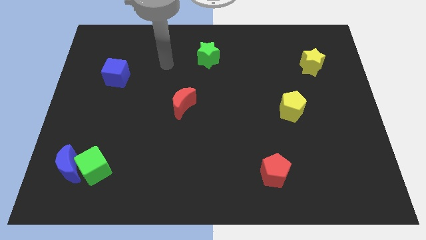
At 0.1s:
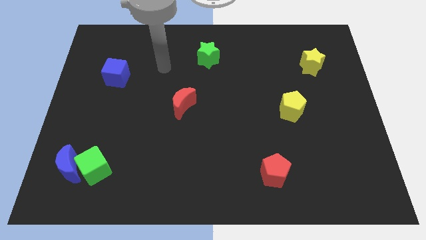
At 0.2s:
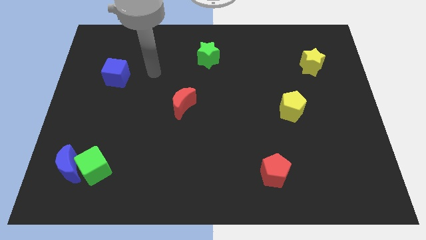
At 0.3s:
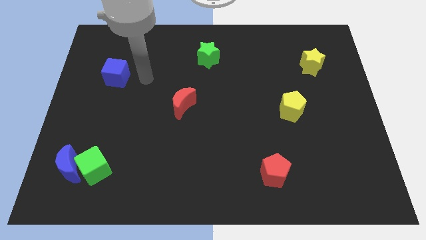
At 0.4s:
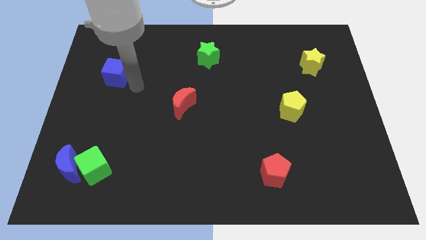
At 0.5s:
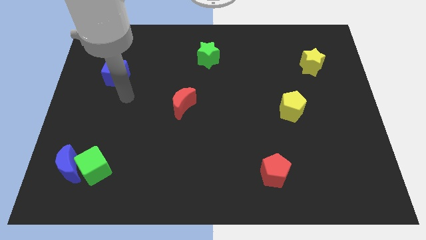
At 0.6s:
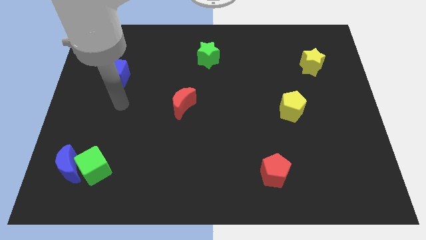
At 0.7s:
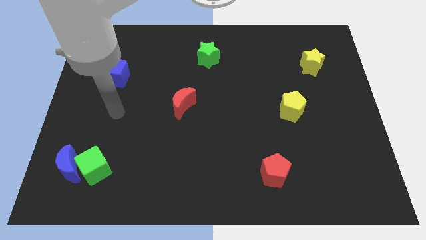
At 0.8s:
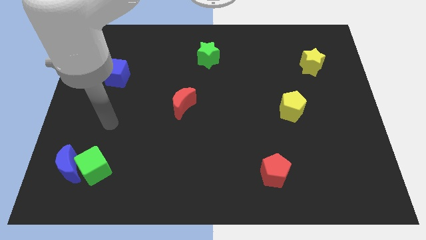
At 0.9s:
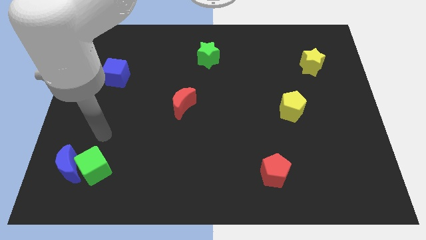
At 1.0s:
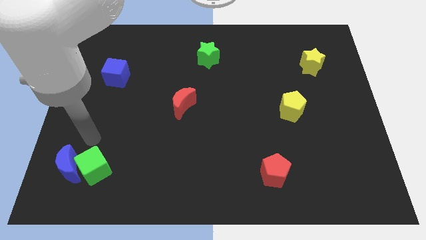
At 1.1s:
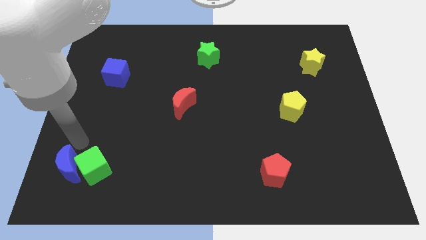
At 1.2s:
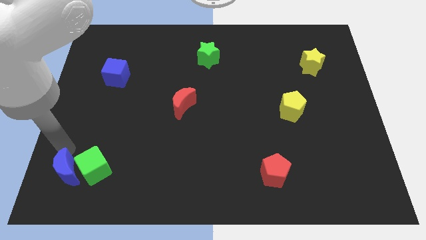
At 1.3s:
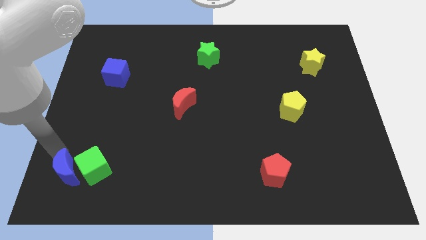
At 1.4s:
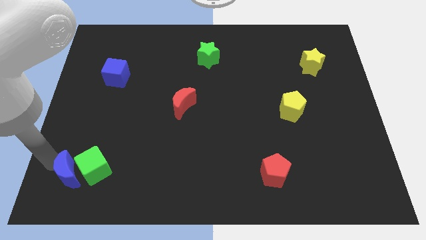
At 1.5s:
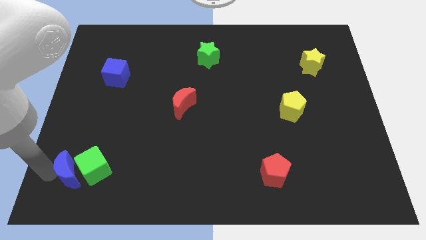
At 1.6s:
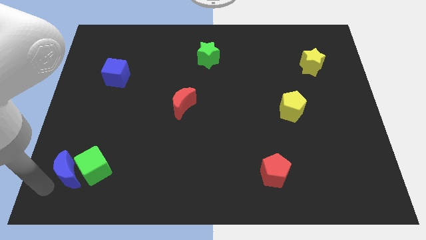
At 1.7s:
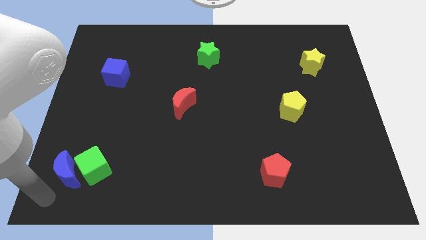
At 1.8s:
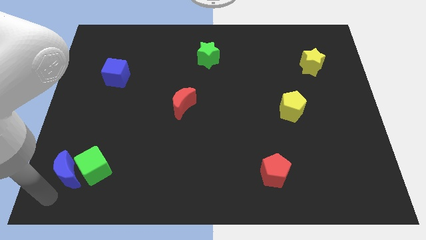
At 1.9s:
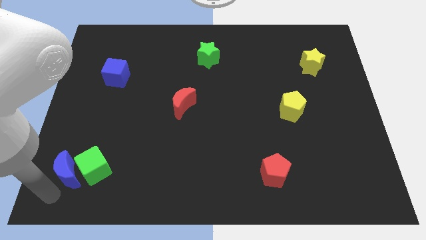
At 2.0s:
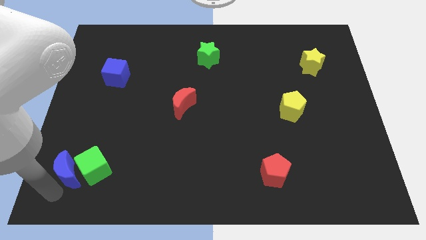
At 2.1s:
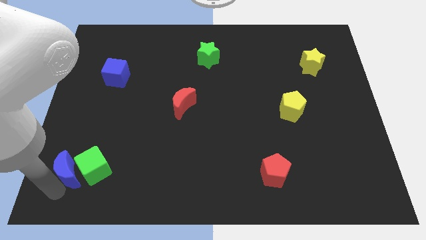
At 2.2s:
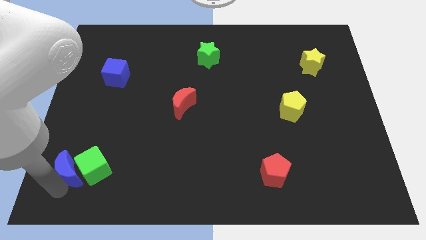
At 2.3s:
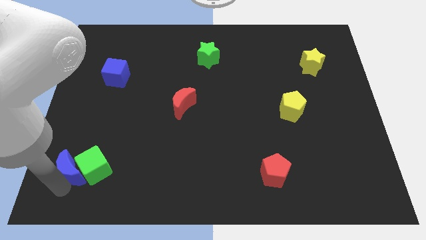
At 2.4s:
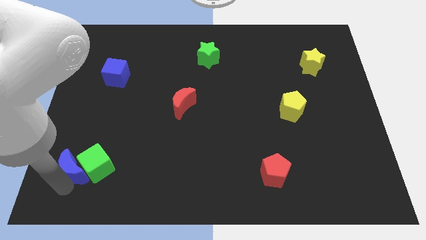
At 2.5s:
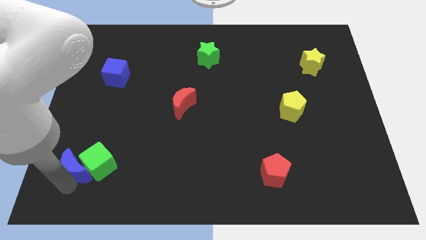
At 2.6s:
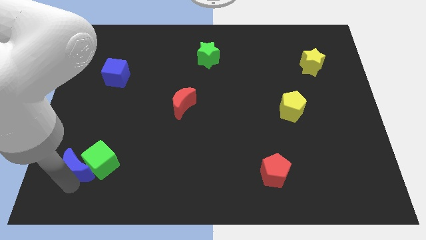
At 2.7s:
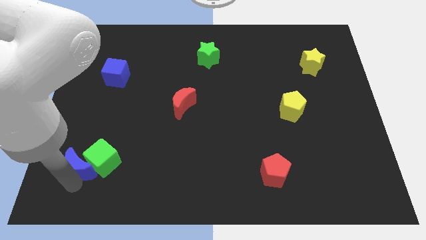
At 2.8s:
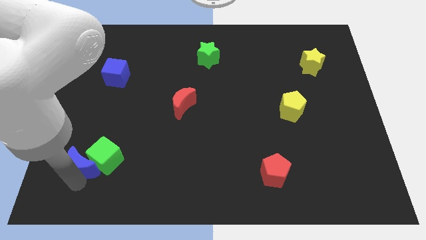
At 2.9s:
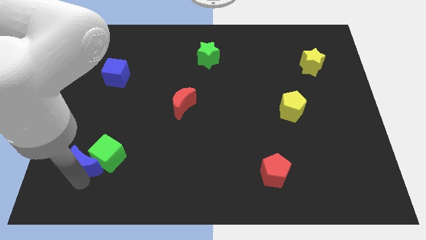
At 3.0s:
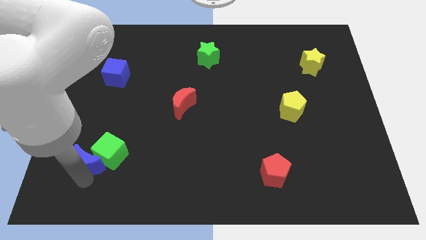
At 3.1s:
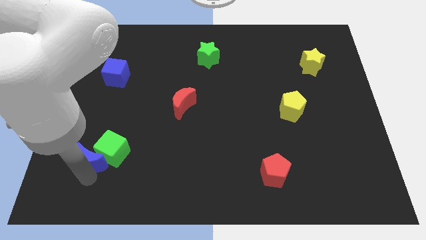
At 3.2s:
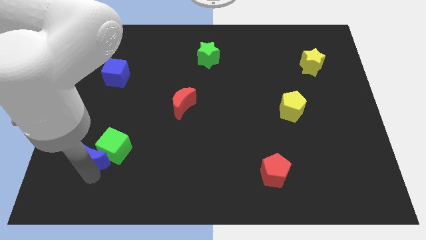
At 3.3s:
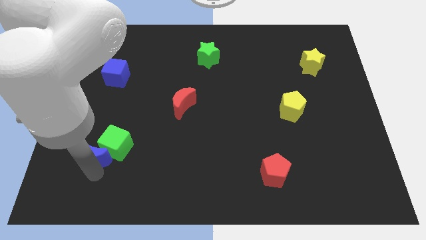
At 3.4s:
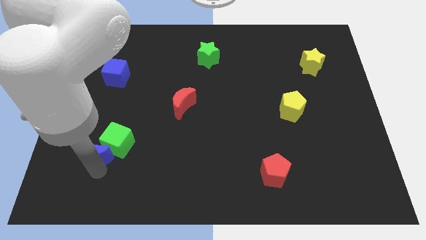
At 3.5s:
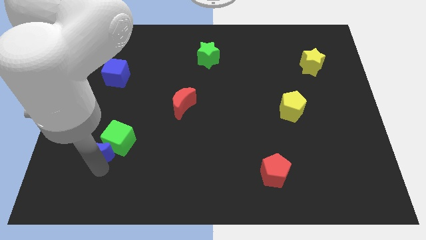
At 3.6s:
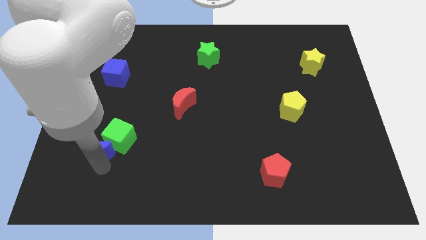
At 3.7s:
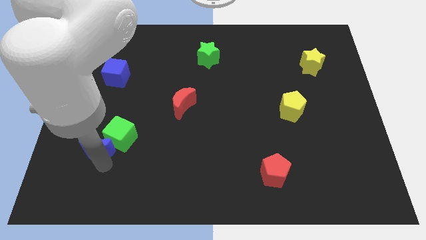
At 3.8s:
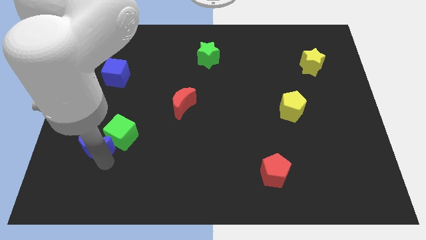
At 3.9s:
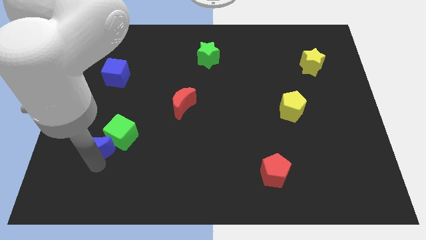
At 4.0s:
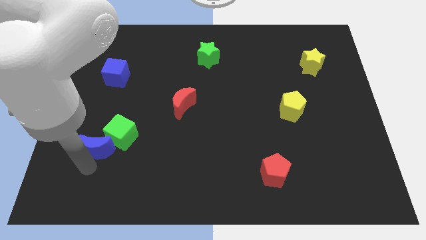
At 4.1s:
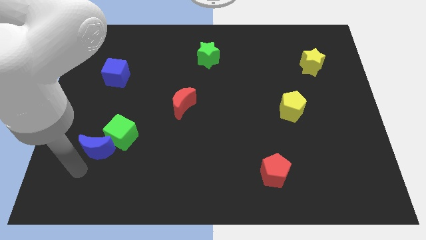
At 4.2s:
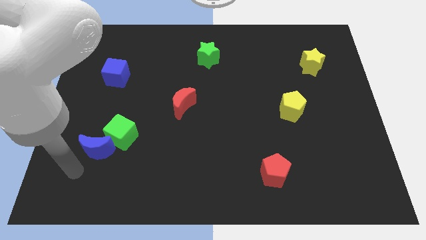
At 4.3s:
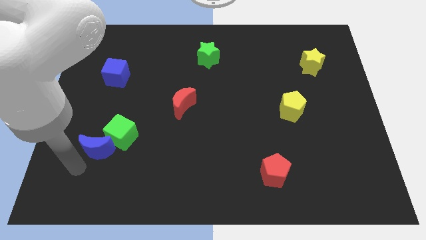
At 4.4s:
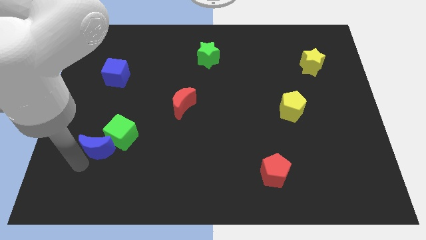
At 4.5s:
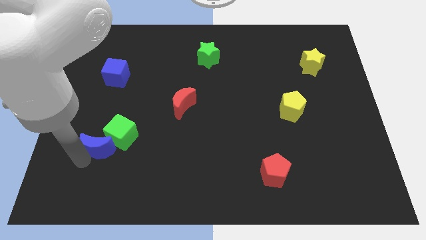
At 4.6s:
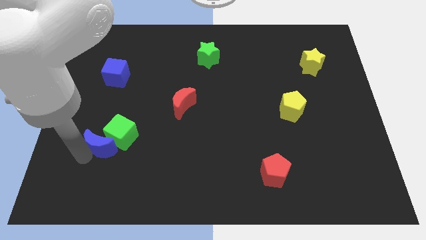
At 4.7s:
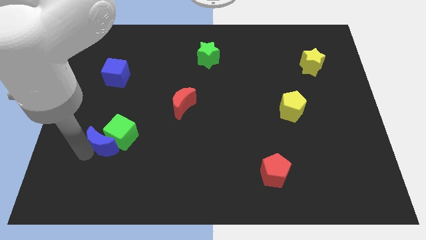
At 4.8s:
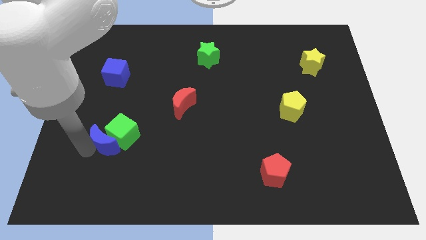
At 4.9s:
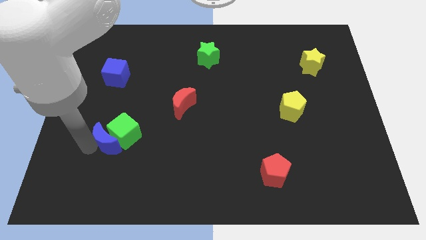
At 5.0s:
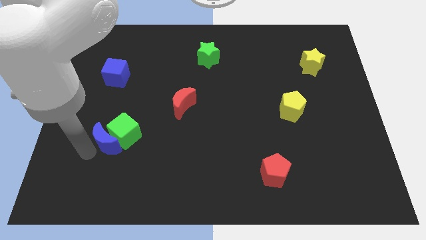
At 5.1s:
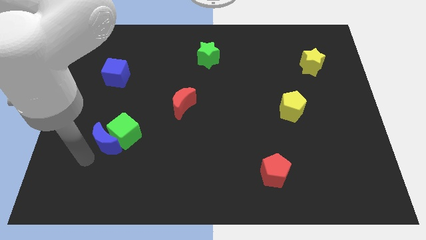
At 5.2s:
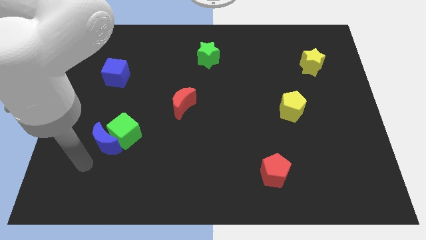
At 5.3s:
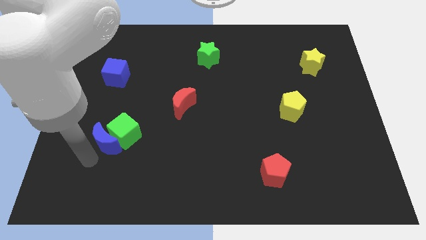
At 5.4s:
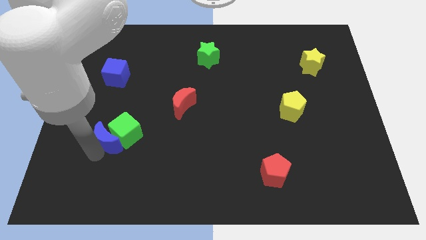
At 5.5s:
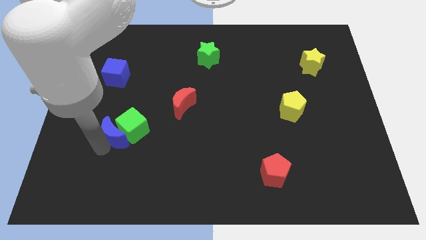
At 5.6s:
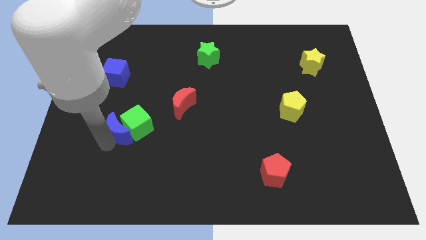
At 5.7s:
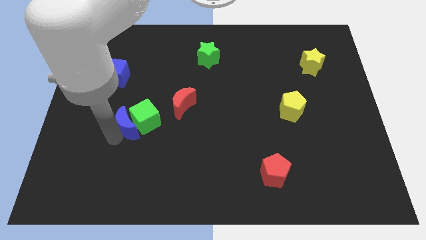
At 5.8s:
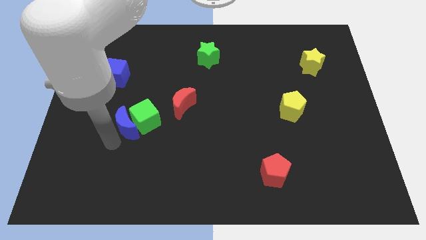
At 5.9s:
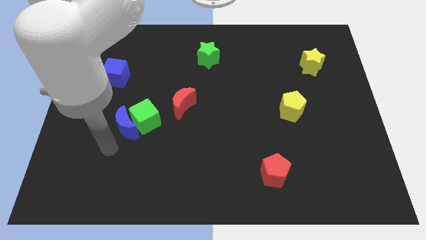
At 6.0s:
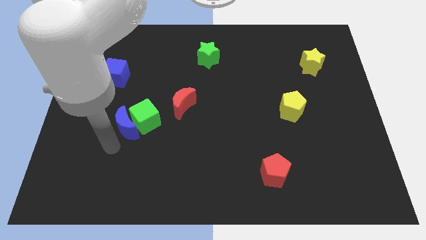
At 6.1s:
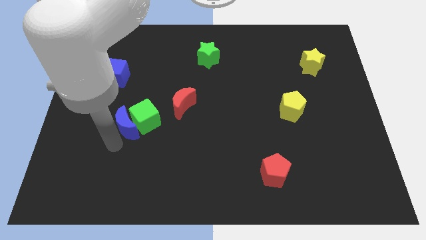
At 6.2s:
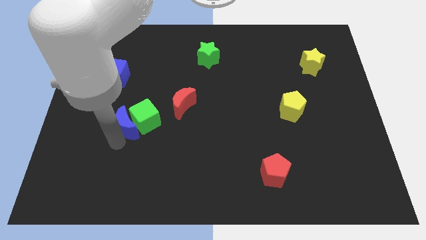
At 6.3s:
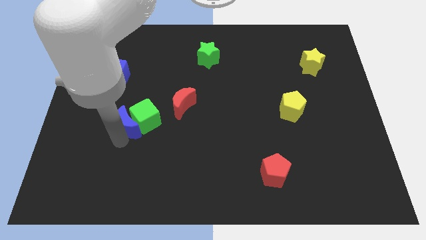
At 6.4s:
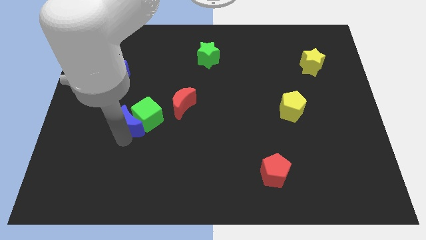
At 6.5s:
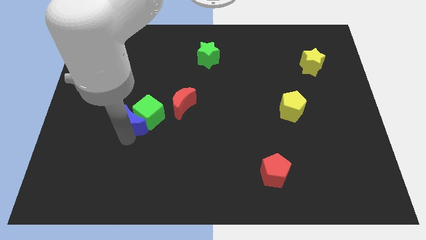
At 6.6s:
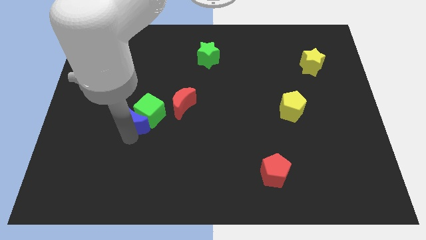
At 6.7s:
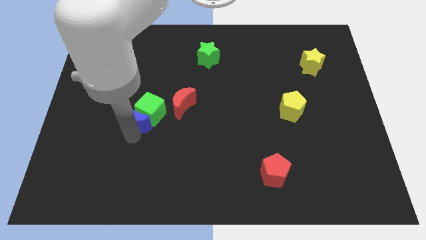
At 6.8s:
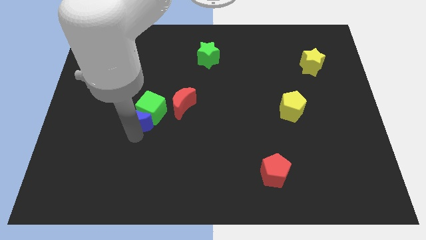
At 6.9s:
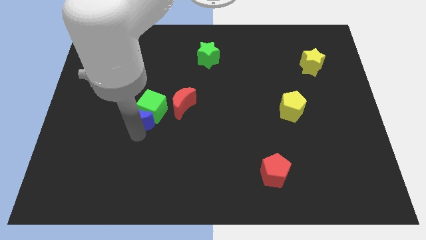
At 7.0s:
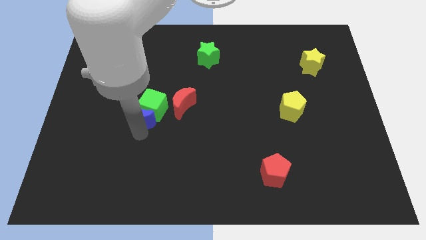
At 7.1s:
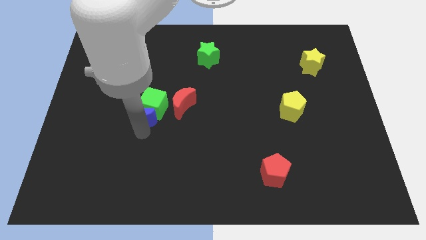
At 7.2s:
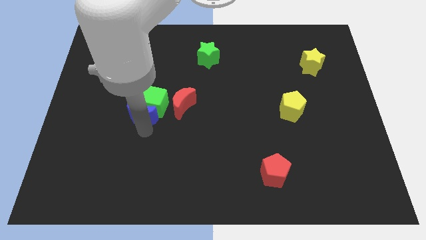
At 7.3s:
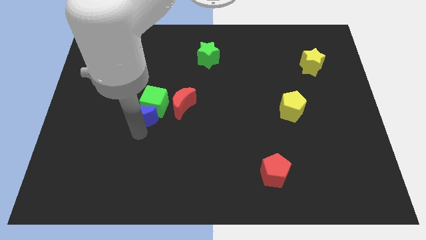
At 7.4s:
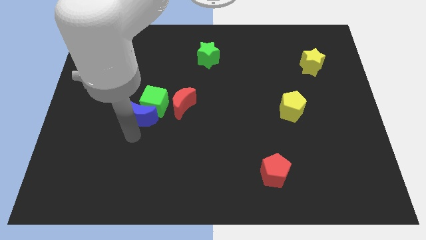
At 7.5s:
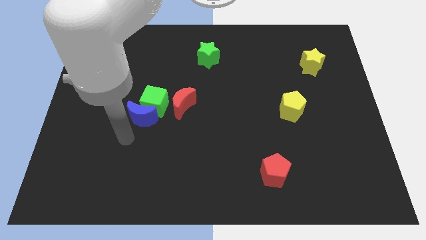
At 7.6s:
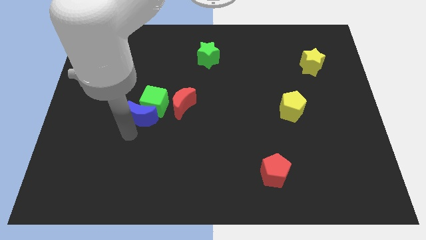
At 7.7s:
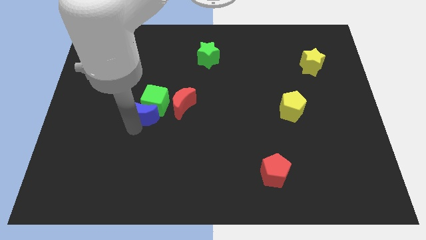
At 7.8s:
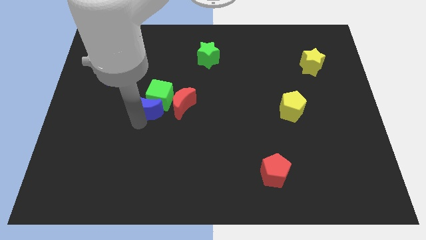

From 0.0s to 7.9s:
slide the blue moon diagonally upwards and to the right
